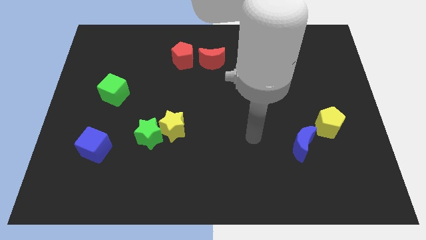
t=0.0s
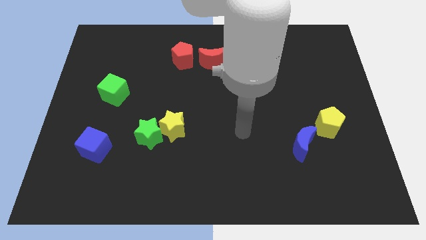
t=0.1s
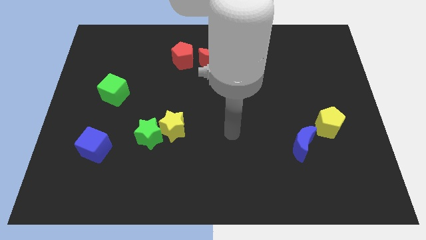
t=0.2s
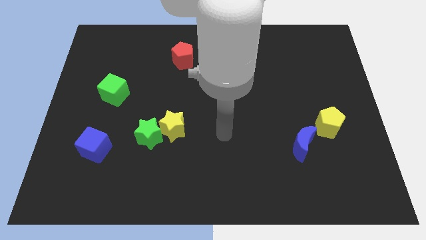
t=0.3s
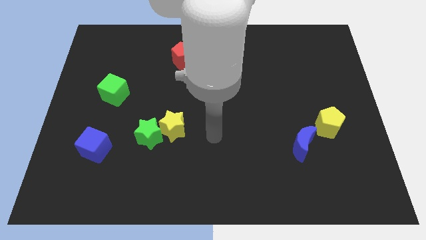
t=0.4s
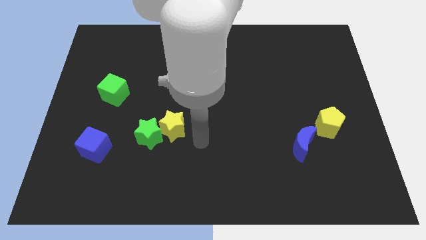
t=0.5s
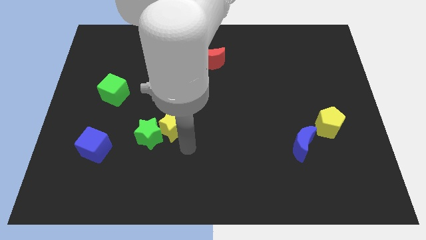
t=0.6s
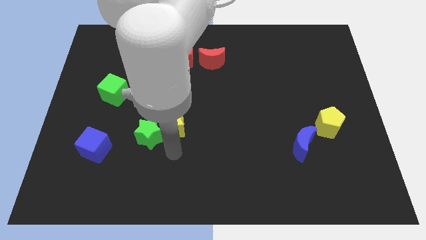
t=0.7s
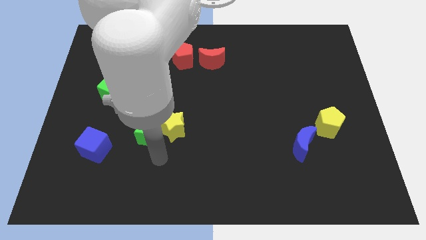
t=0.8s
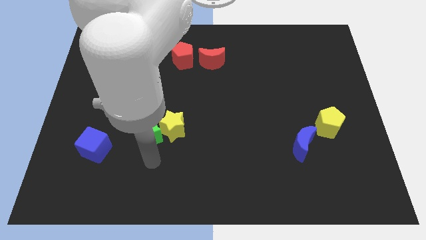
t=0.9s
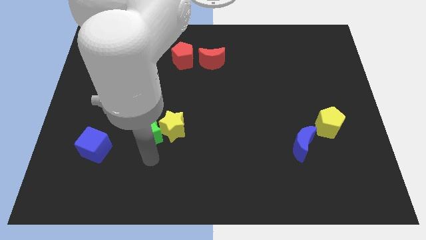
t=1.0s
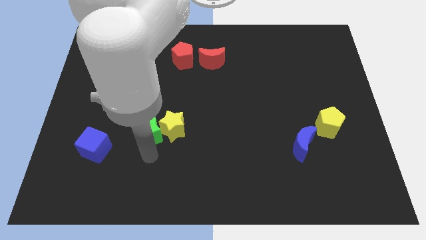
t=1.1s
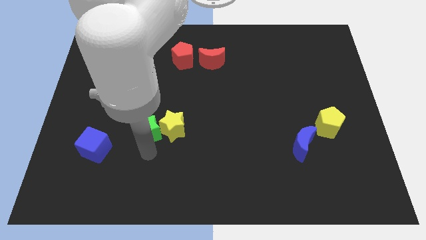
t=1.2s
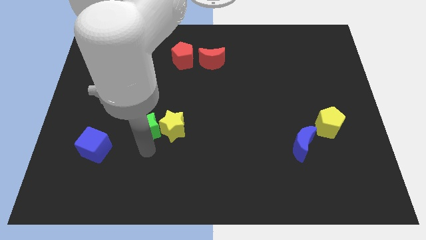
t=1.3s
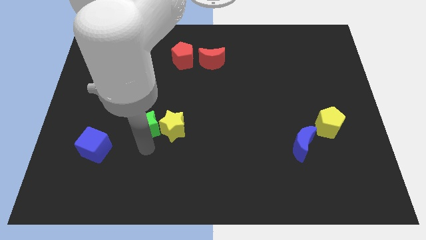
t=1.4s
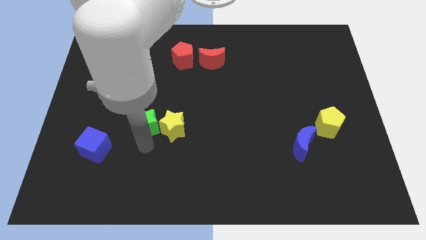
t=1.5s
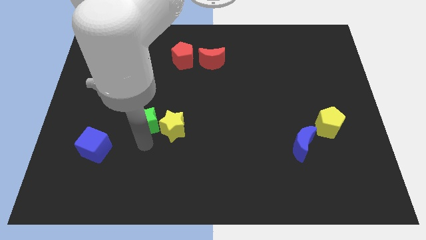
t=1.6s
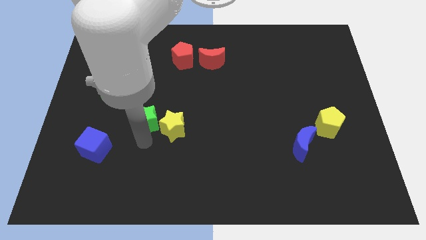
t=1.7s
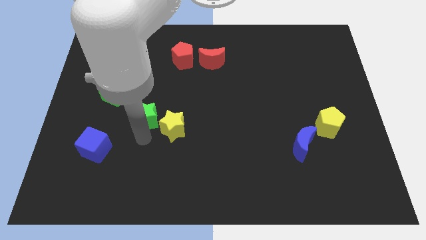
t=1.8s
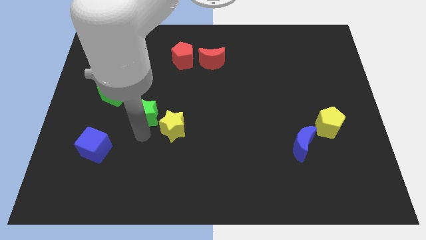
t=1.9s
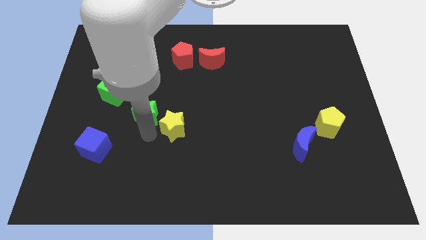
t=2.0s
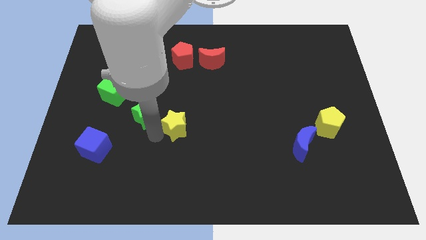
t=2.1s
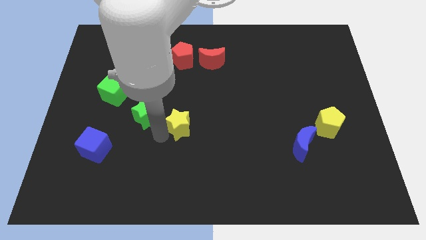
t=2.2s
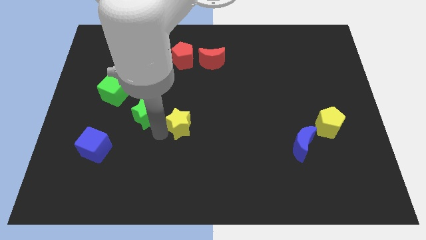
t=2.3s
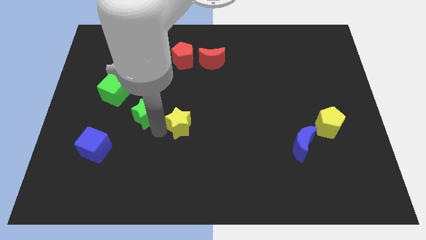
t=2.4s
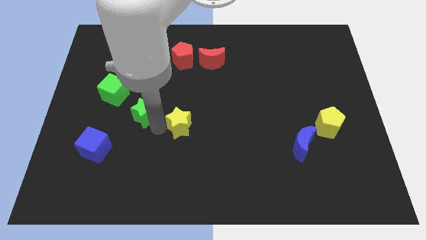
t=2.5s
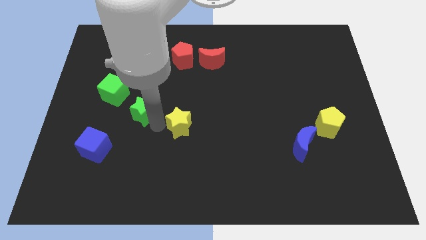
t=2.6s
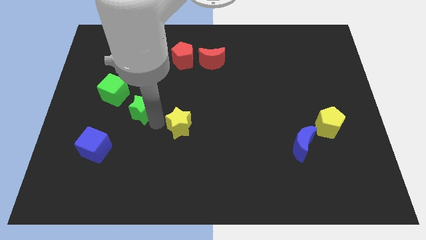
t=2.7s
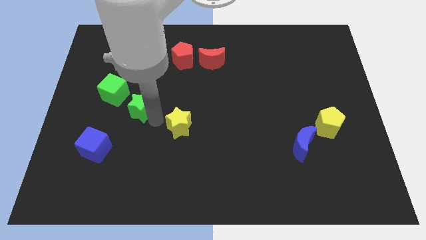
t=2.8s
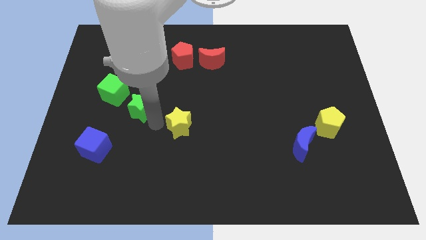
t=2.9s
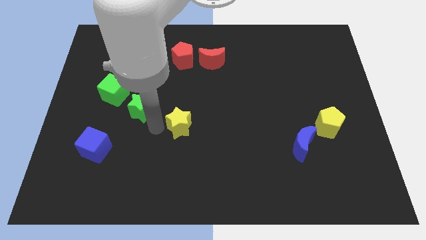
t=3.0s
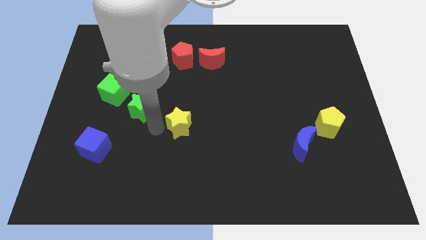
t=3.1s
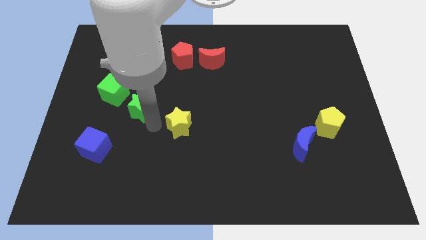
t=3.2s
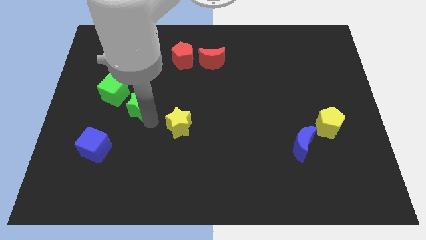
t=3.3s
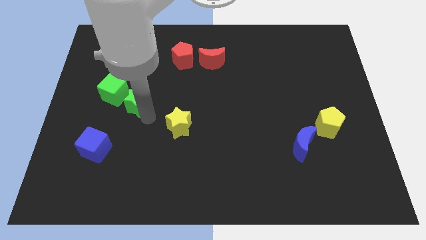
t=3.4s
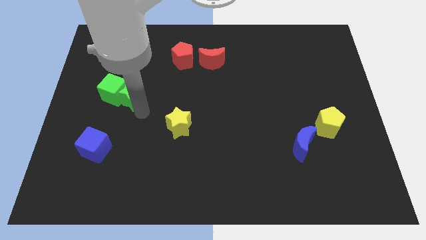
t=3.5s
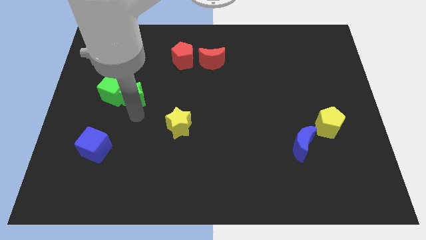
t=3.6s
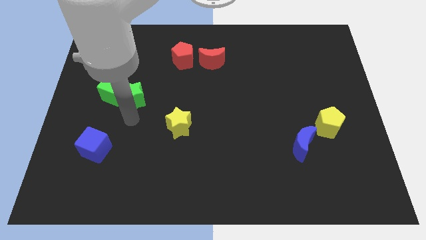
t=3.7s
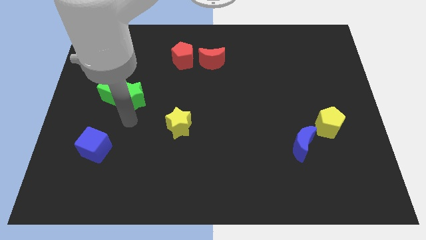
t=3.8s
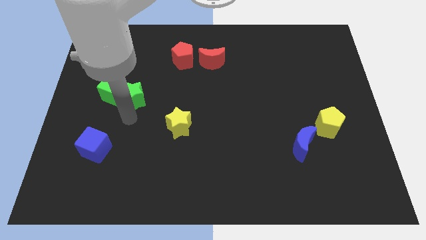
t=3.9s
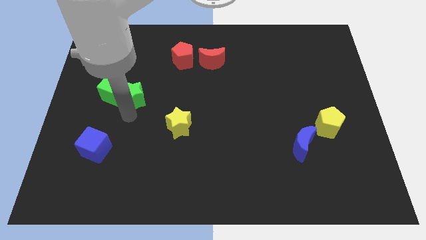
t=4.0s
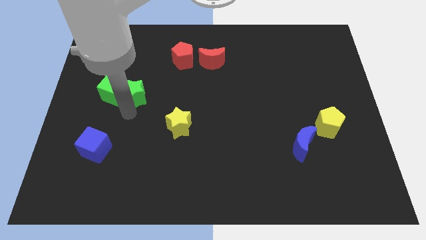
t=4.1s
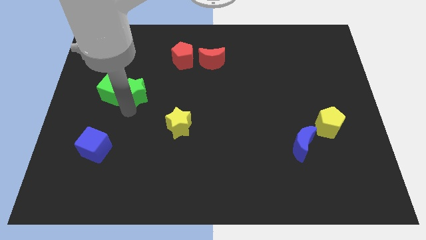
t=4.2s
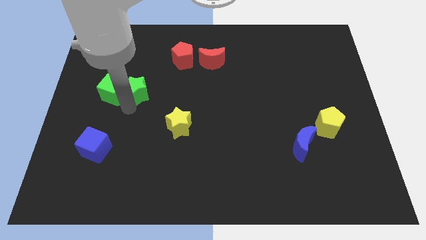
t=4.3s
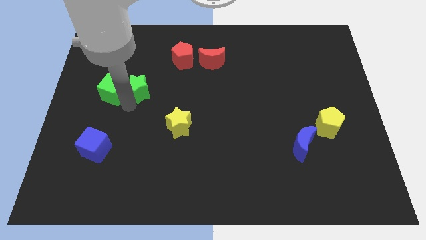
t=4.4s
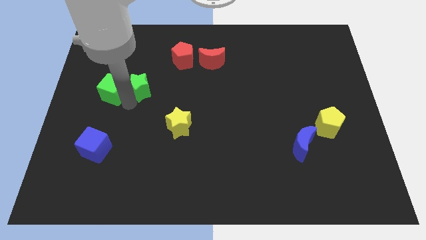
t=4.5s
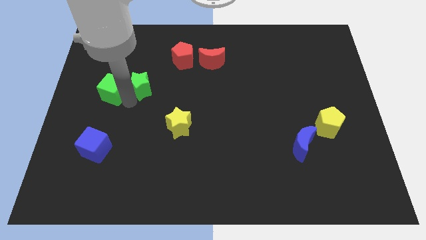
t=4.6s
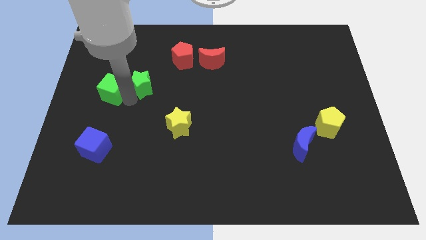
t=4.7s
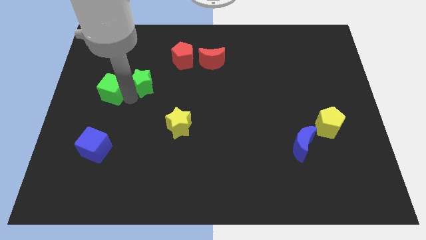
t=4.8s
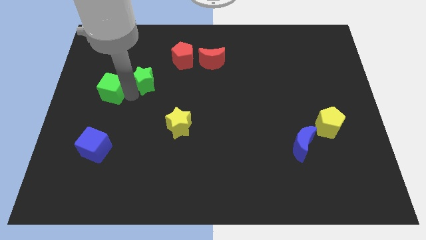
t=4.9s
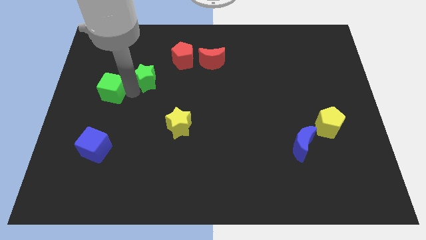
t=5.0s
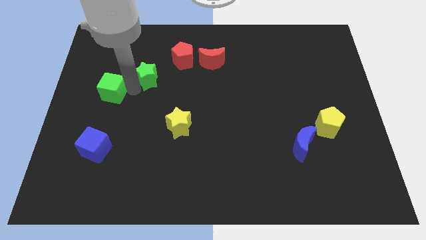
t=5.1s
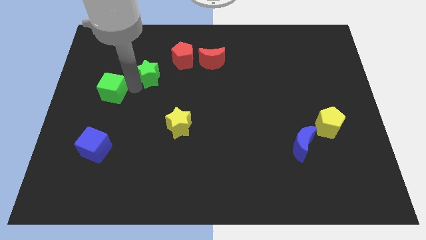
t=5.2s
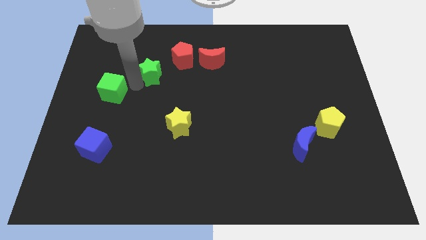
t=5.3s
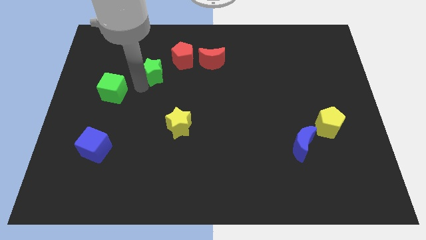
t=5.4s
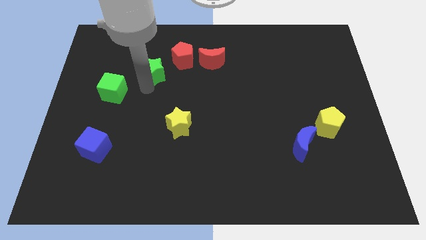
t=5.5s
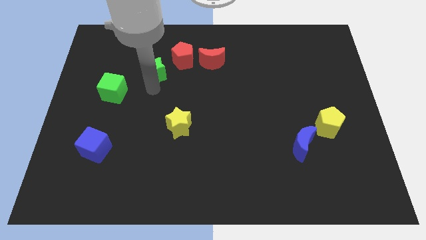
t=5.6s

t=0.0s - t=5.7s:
push the green star left of the red pentagon

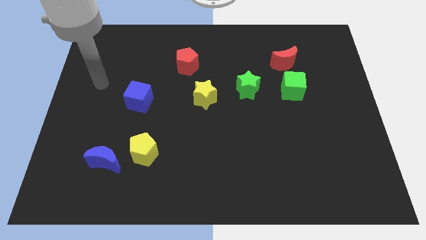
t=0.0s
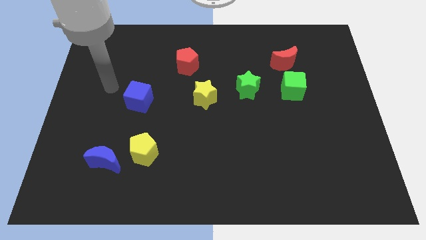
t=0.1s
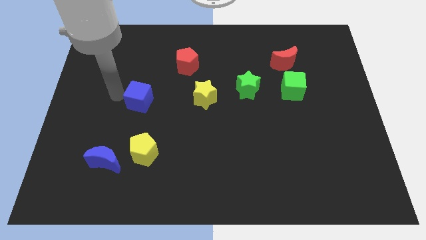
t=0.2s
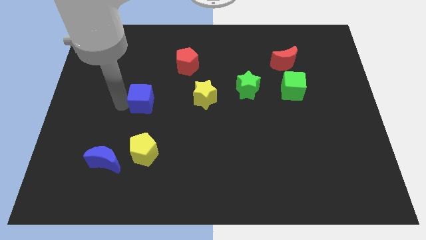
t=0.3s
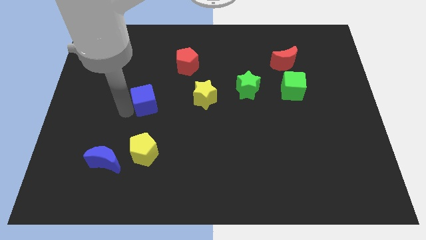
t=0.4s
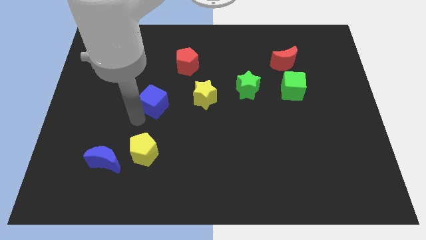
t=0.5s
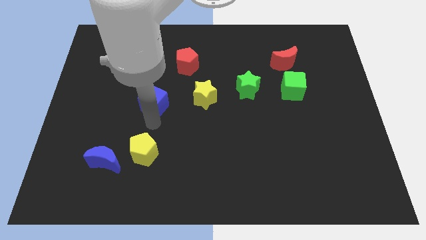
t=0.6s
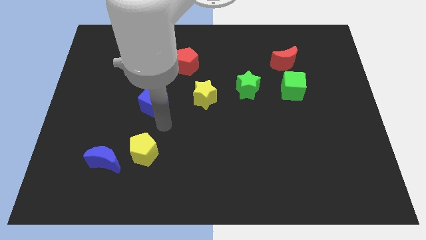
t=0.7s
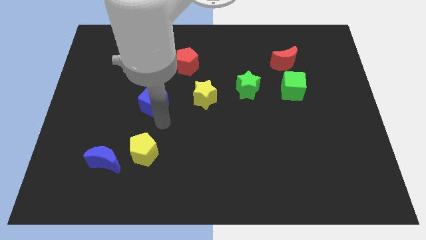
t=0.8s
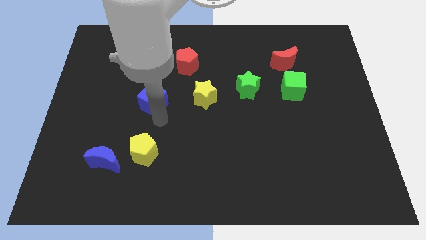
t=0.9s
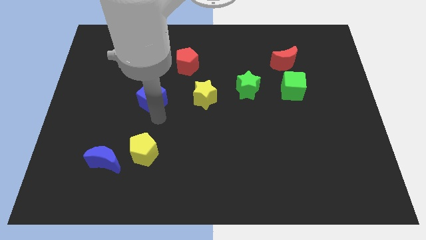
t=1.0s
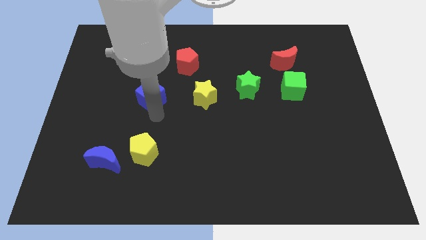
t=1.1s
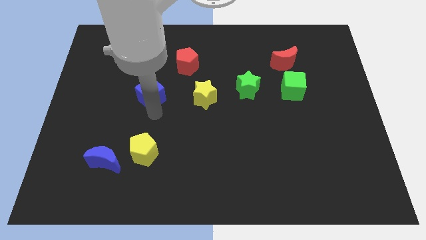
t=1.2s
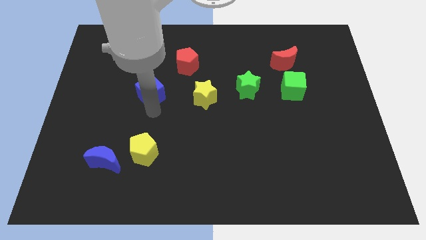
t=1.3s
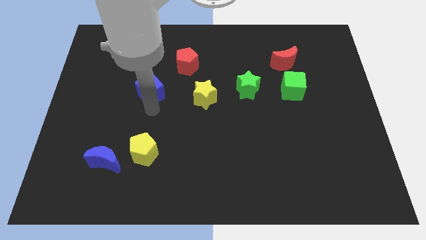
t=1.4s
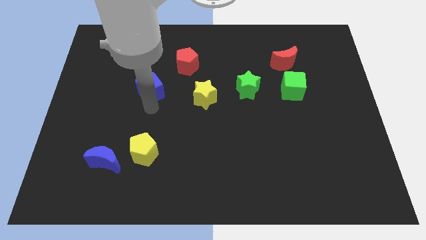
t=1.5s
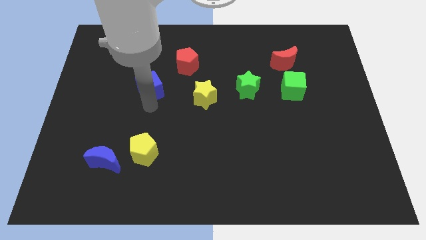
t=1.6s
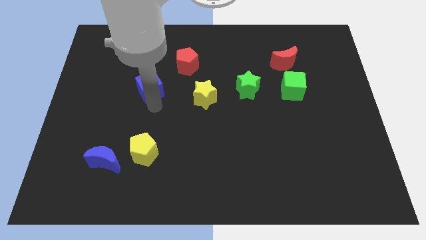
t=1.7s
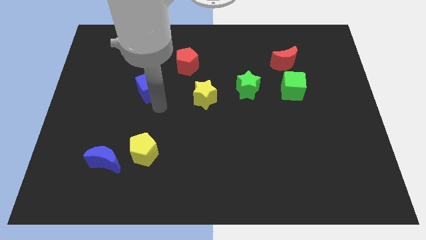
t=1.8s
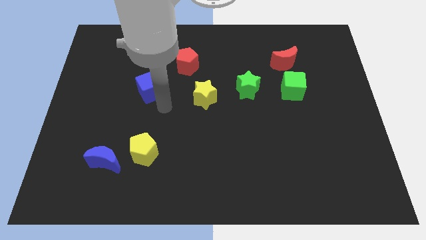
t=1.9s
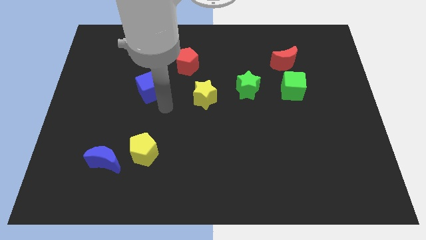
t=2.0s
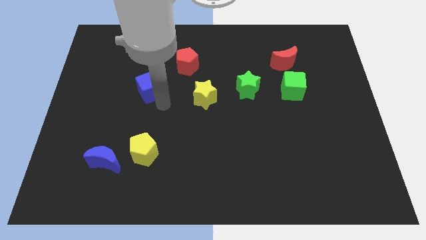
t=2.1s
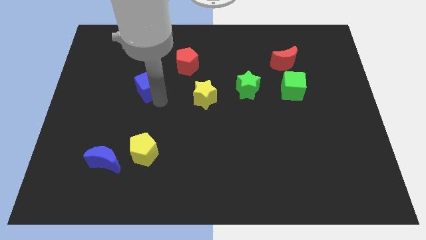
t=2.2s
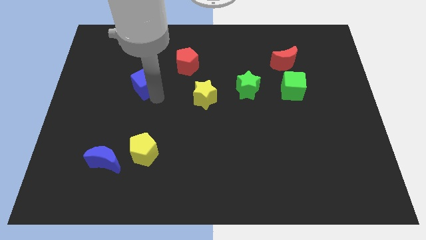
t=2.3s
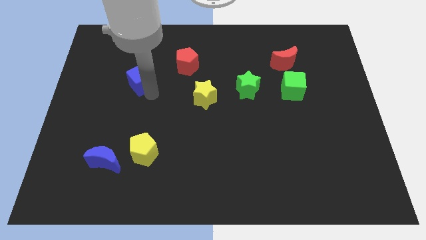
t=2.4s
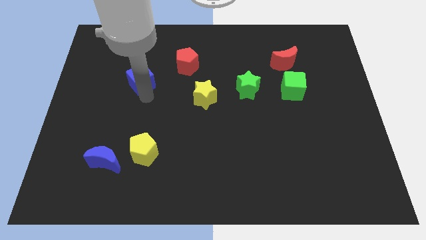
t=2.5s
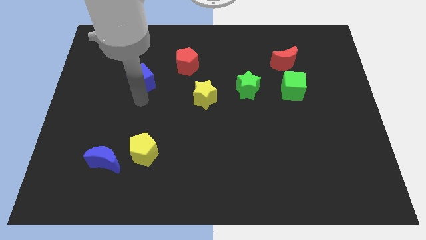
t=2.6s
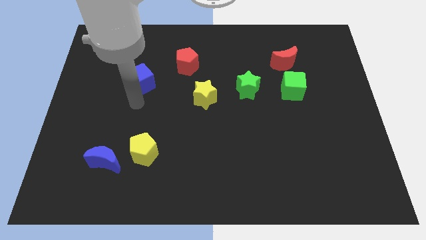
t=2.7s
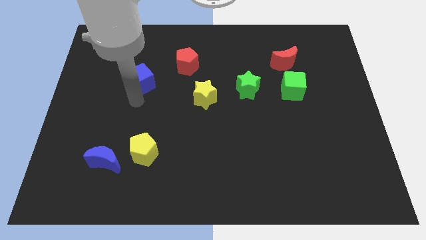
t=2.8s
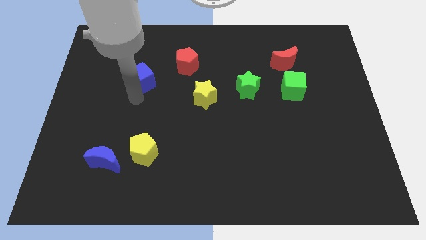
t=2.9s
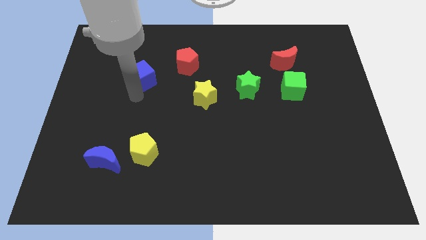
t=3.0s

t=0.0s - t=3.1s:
move the blue cube to the left of the red pentagon
